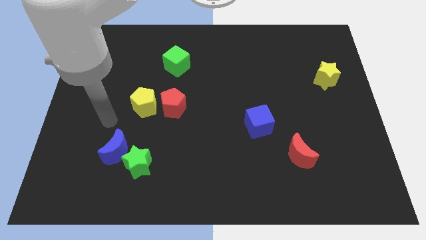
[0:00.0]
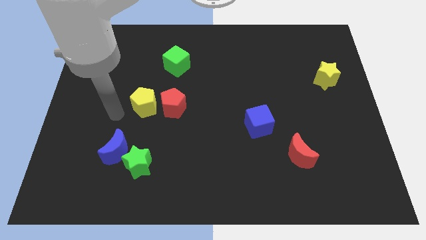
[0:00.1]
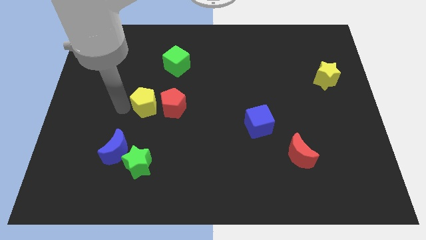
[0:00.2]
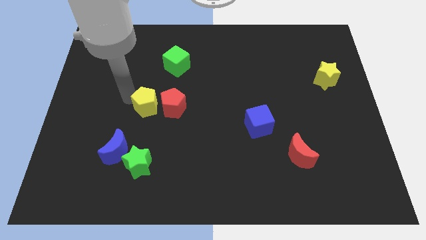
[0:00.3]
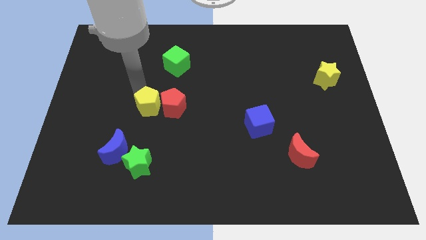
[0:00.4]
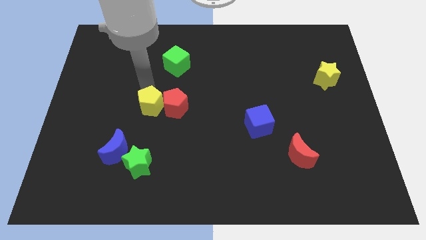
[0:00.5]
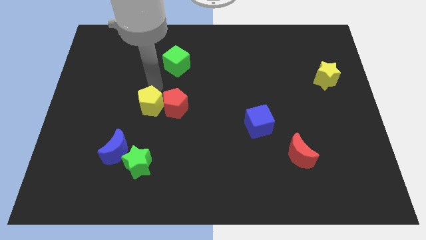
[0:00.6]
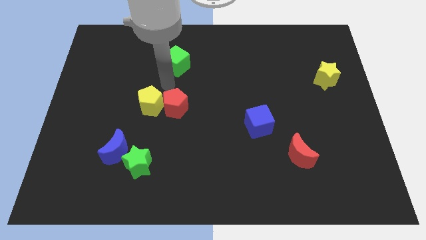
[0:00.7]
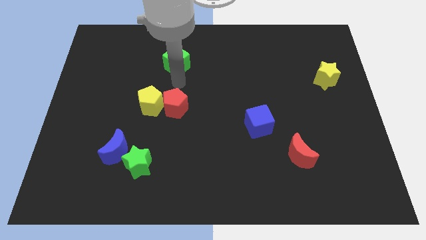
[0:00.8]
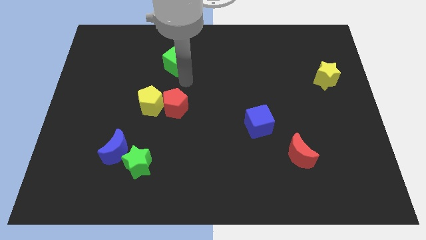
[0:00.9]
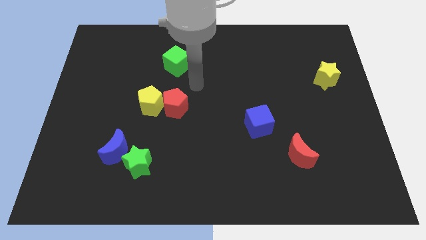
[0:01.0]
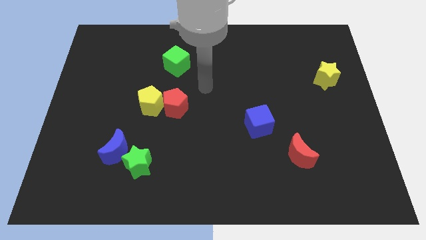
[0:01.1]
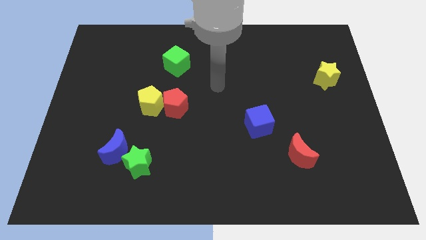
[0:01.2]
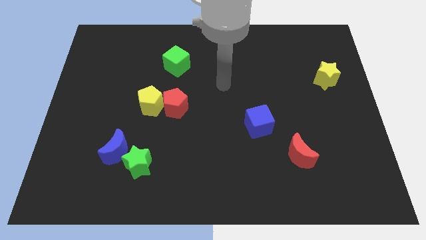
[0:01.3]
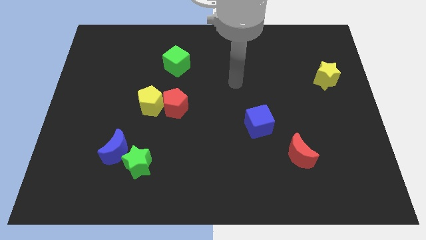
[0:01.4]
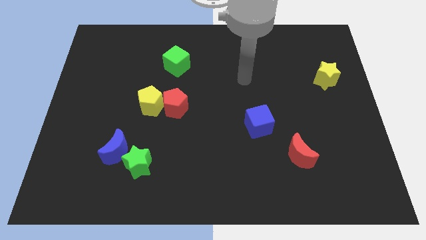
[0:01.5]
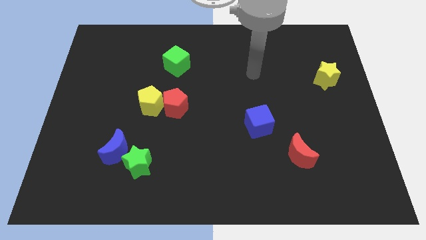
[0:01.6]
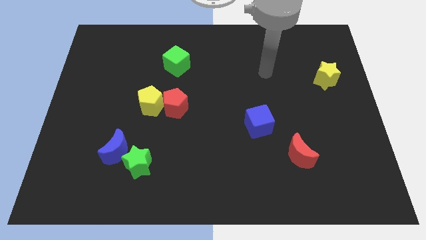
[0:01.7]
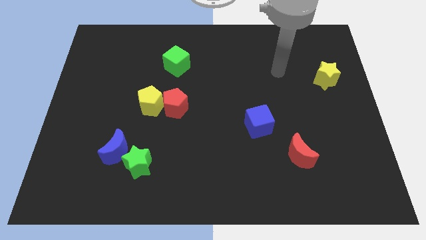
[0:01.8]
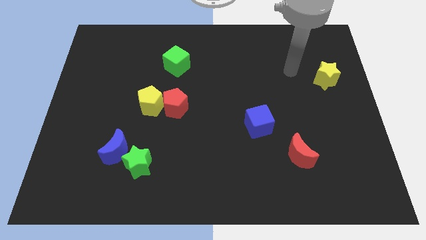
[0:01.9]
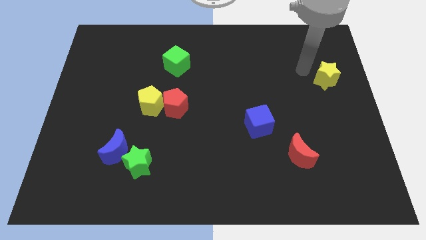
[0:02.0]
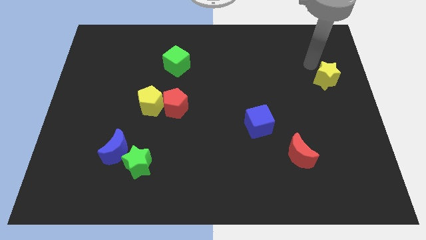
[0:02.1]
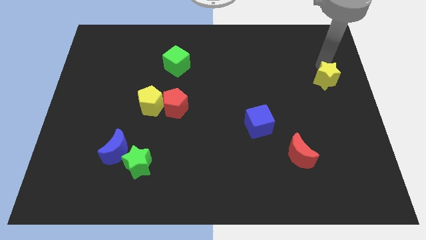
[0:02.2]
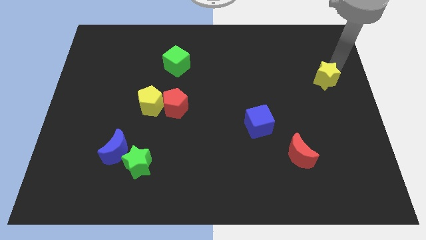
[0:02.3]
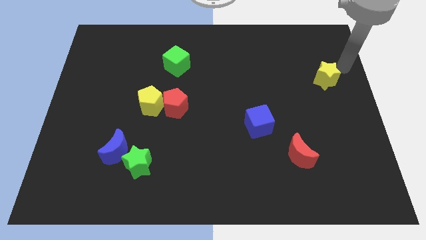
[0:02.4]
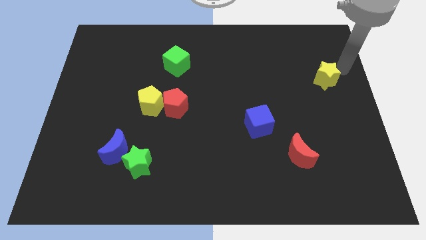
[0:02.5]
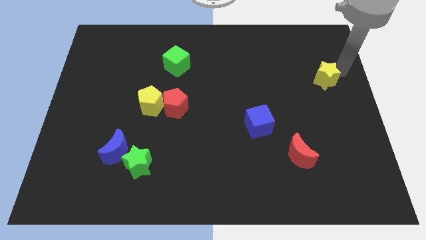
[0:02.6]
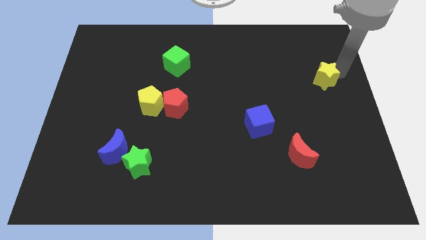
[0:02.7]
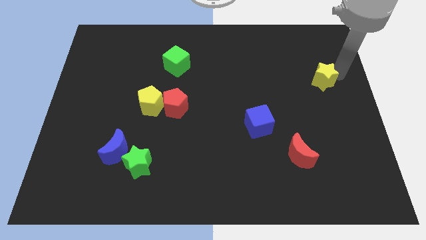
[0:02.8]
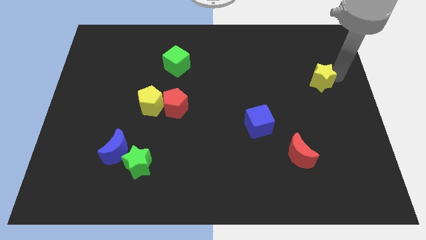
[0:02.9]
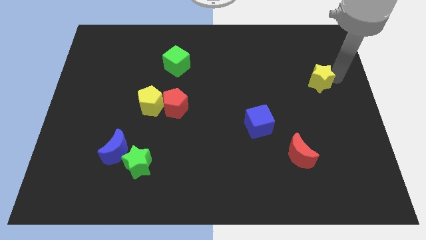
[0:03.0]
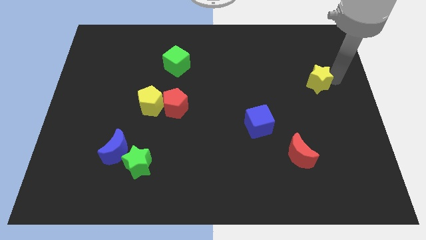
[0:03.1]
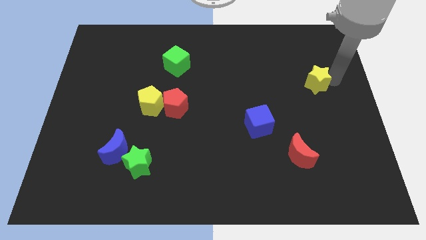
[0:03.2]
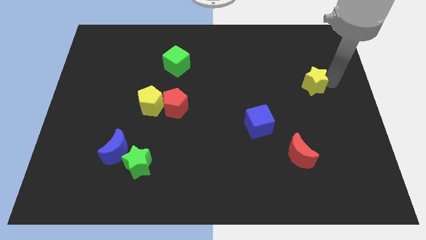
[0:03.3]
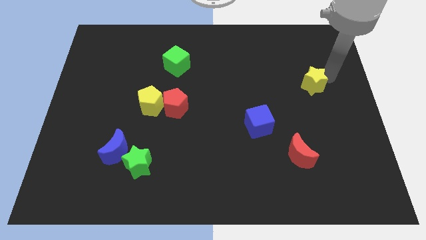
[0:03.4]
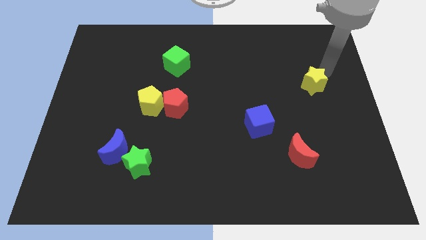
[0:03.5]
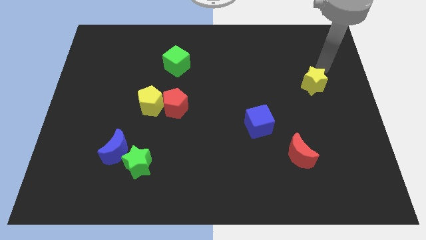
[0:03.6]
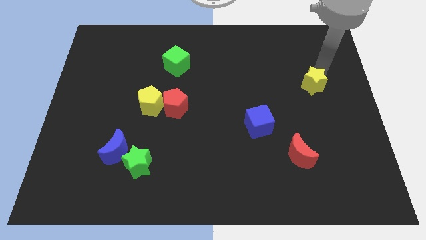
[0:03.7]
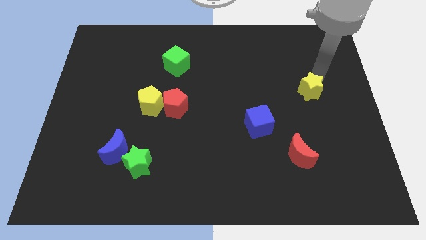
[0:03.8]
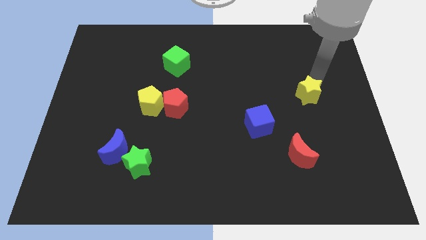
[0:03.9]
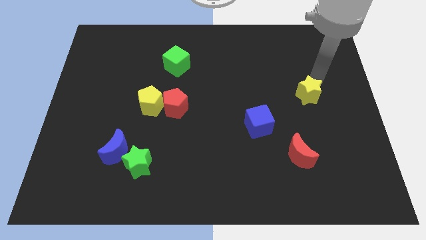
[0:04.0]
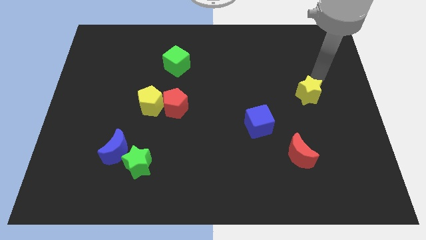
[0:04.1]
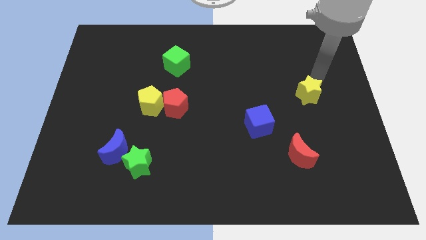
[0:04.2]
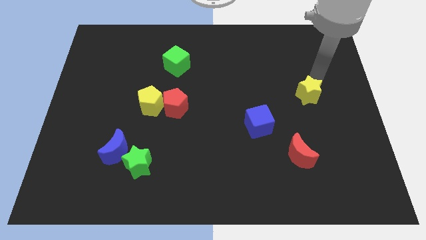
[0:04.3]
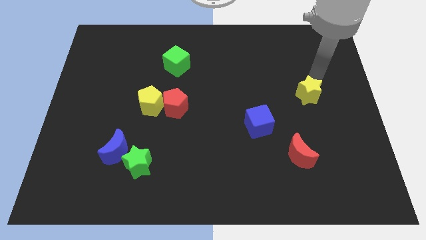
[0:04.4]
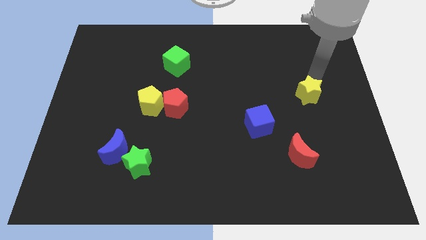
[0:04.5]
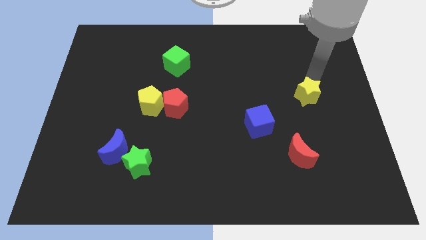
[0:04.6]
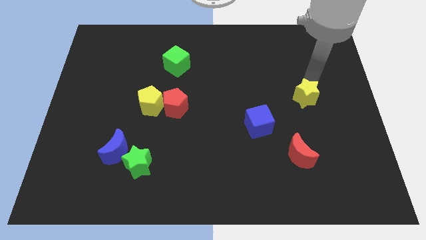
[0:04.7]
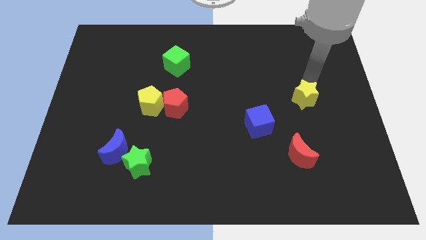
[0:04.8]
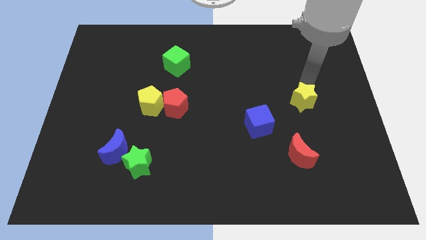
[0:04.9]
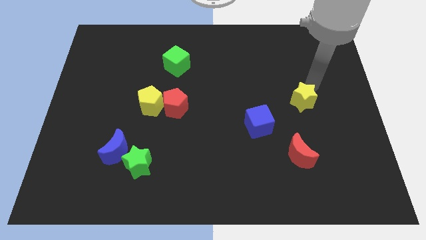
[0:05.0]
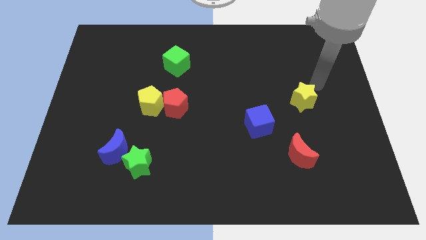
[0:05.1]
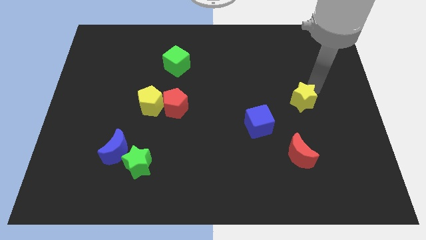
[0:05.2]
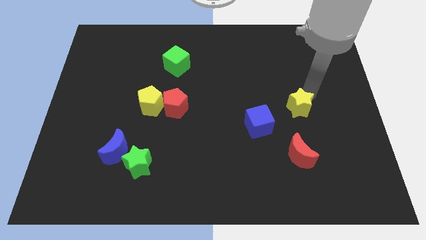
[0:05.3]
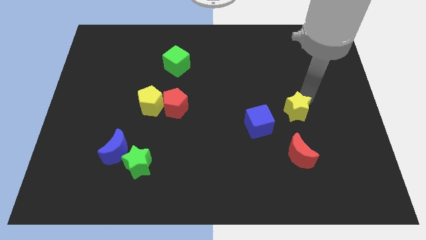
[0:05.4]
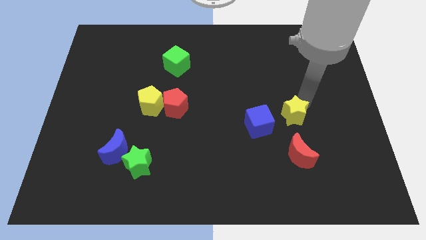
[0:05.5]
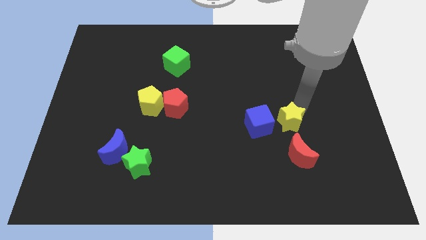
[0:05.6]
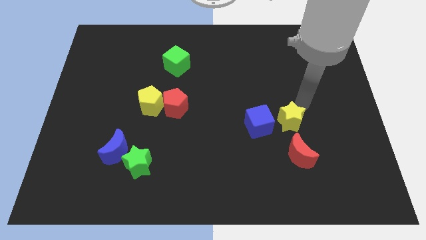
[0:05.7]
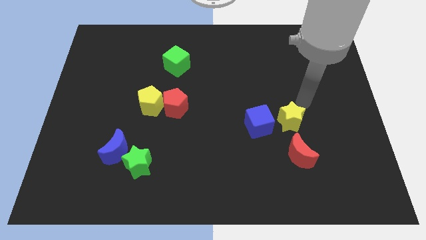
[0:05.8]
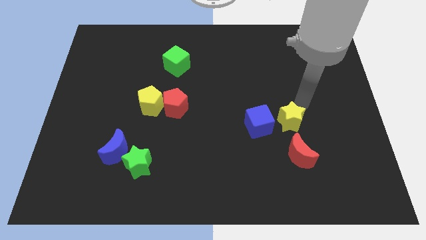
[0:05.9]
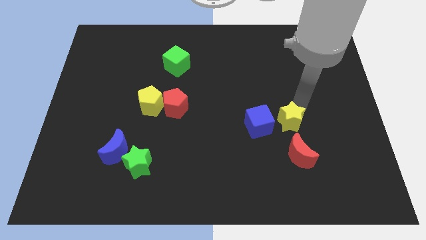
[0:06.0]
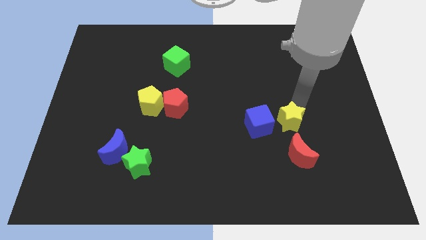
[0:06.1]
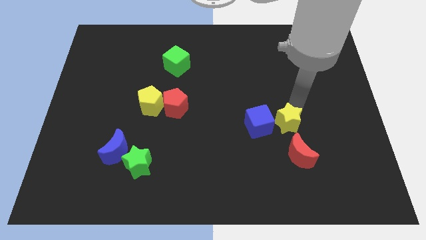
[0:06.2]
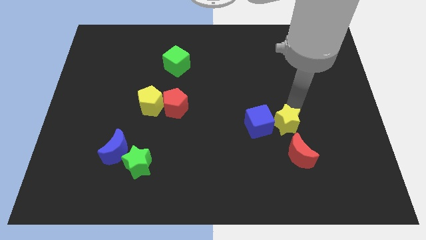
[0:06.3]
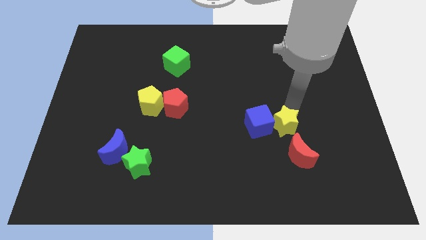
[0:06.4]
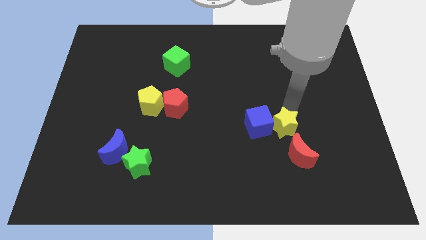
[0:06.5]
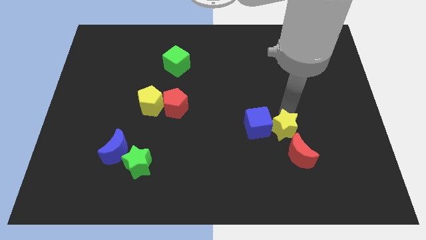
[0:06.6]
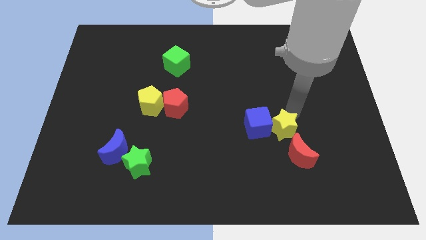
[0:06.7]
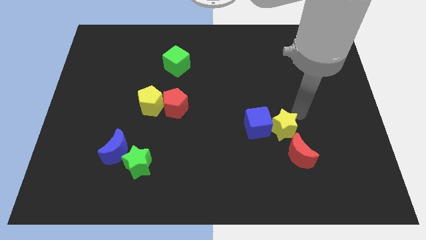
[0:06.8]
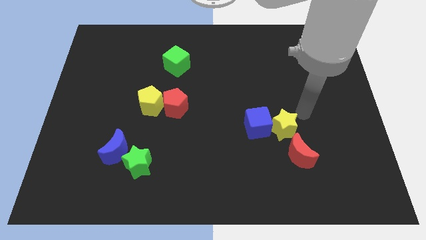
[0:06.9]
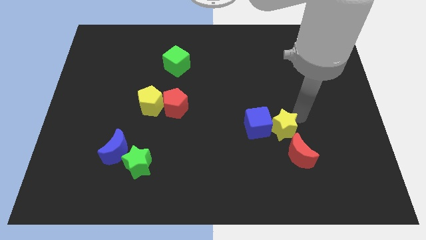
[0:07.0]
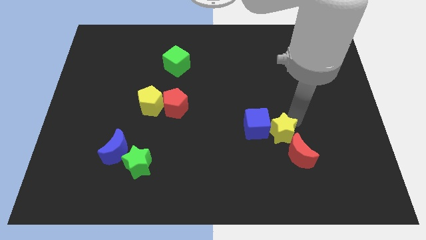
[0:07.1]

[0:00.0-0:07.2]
push the yellow star down and then left

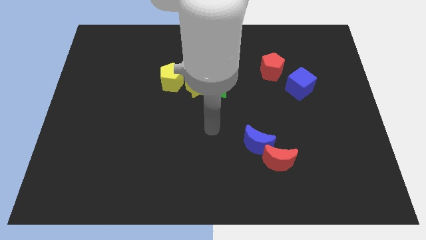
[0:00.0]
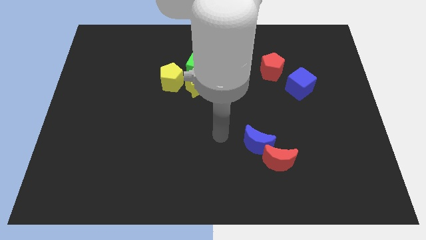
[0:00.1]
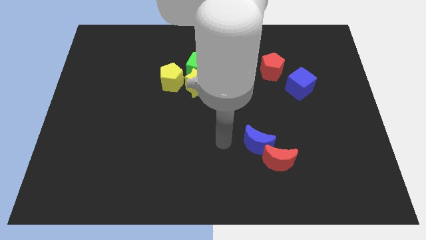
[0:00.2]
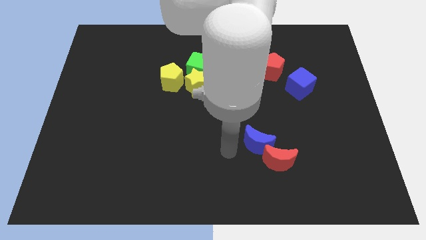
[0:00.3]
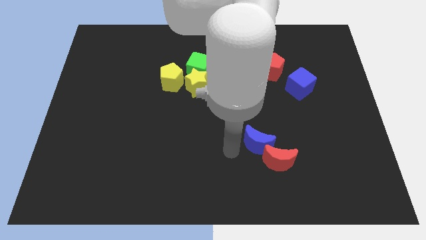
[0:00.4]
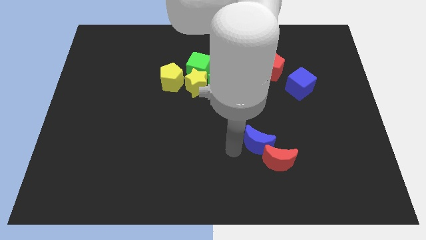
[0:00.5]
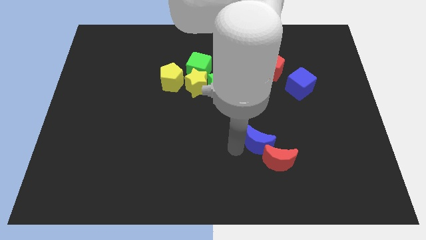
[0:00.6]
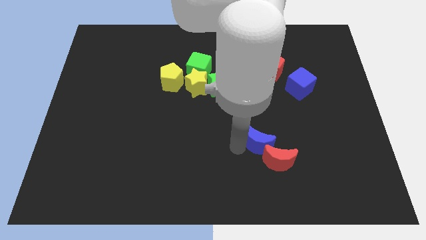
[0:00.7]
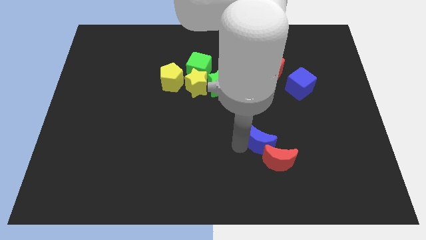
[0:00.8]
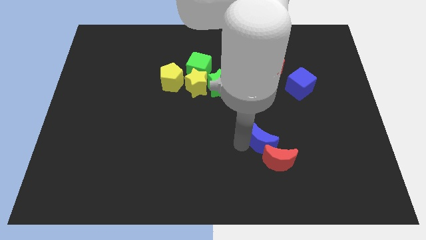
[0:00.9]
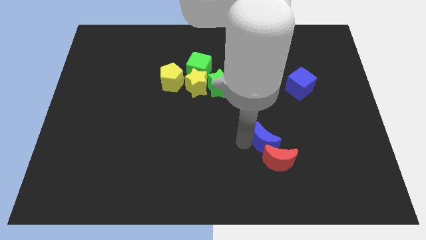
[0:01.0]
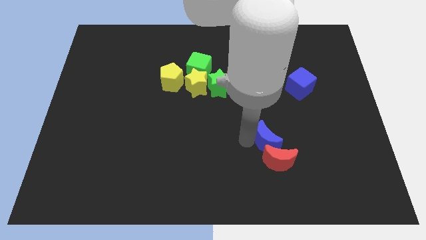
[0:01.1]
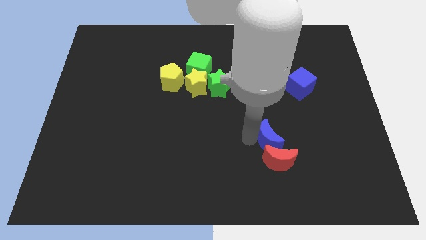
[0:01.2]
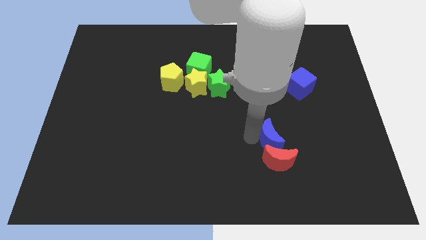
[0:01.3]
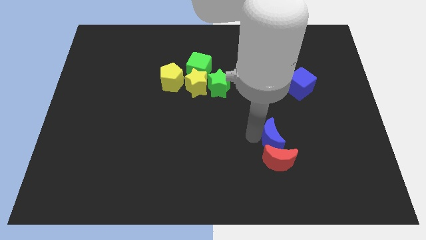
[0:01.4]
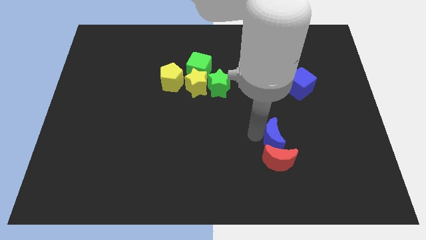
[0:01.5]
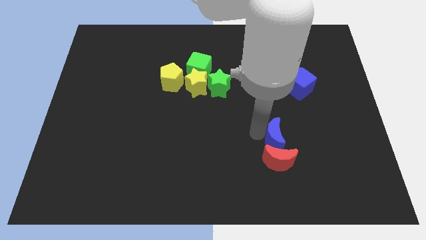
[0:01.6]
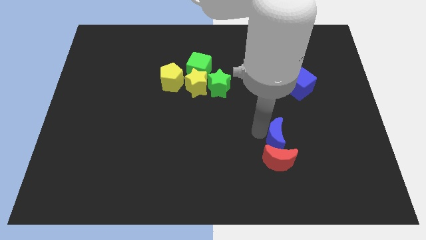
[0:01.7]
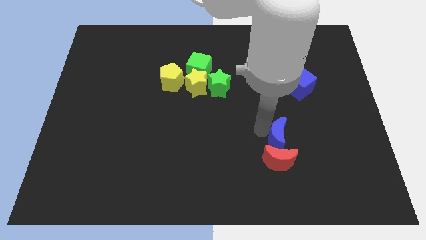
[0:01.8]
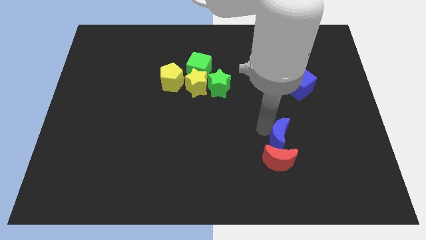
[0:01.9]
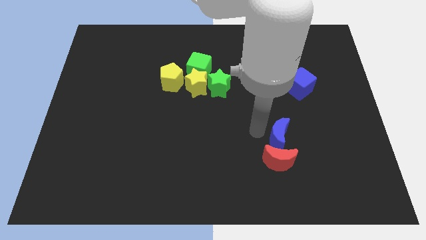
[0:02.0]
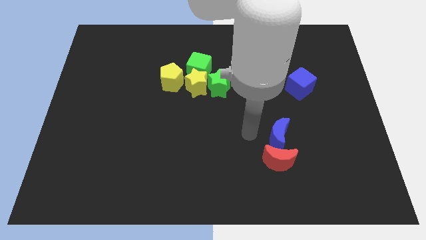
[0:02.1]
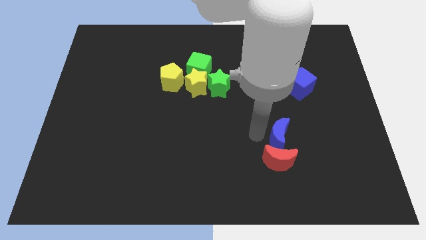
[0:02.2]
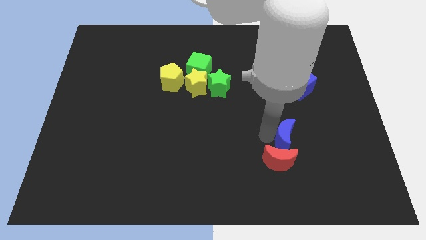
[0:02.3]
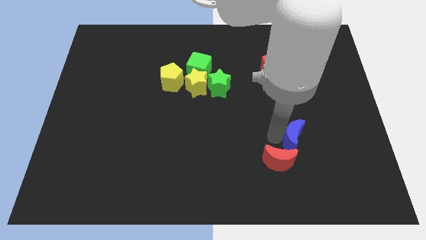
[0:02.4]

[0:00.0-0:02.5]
slightly slide the blue moon right
